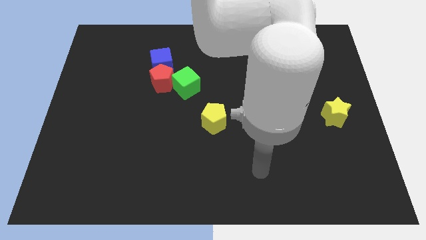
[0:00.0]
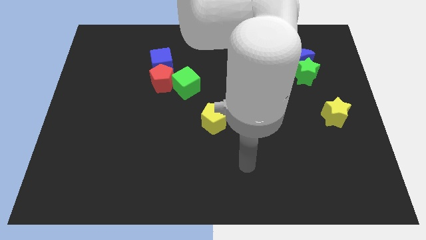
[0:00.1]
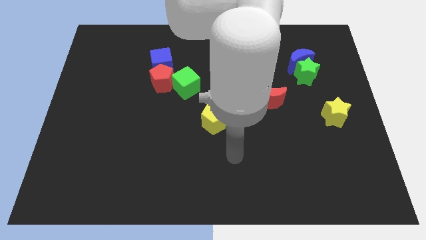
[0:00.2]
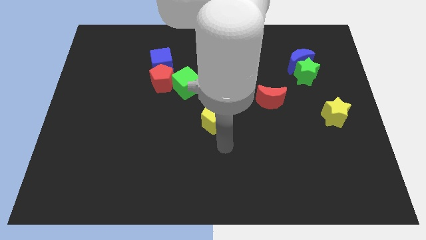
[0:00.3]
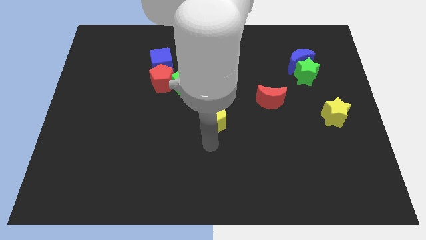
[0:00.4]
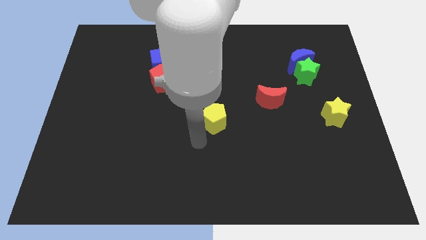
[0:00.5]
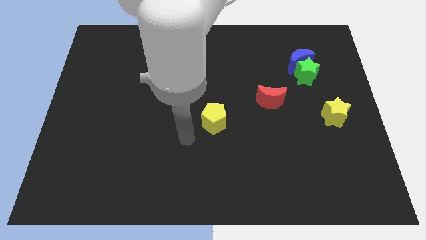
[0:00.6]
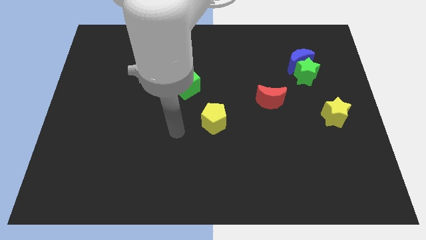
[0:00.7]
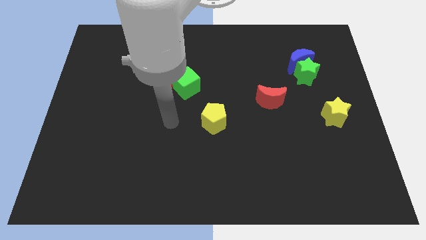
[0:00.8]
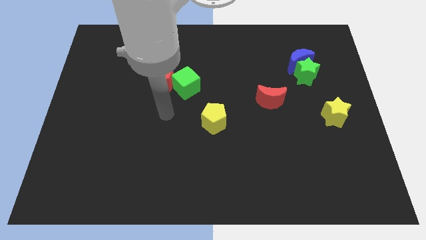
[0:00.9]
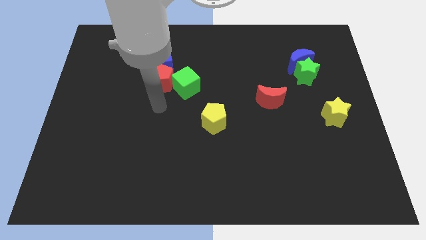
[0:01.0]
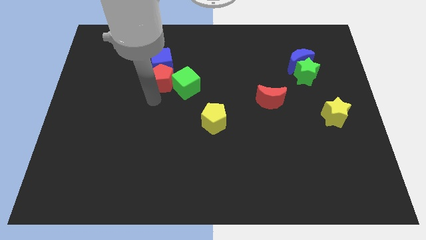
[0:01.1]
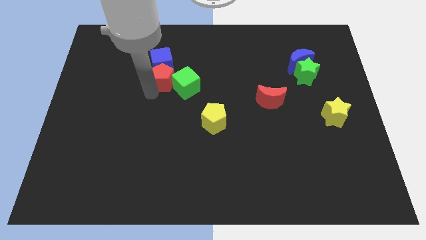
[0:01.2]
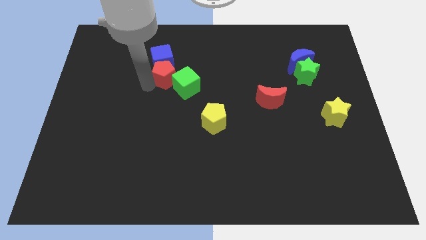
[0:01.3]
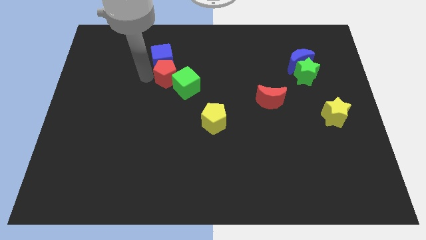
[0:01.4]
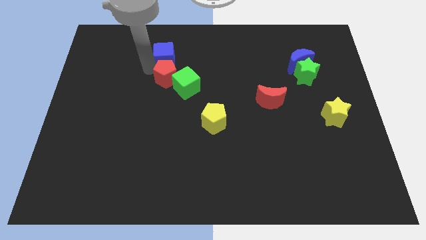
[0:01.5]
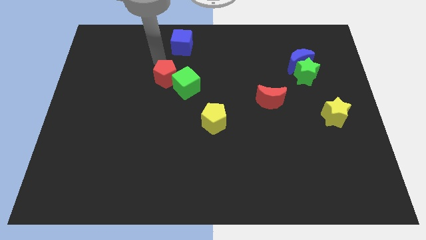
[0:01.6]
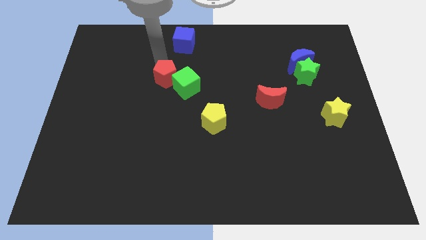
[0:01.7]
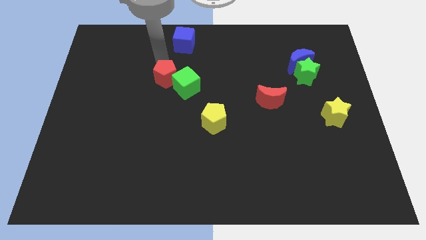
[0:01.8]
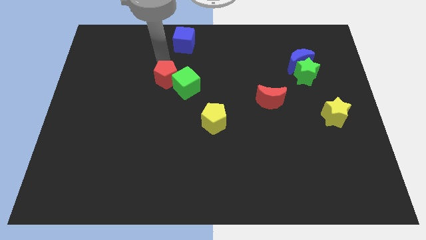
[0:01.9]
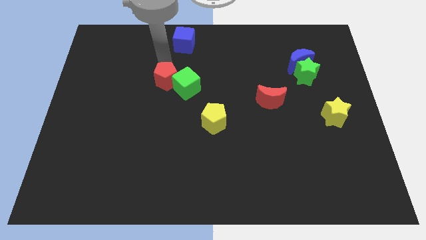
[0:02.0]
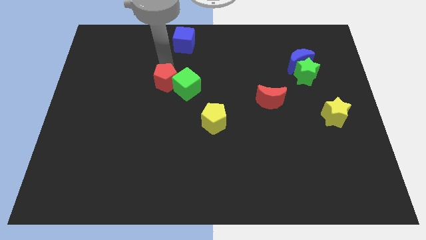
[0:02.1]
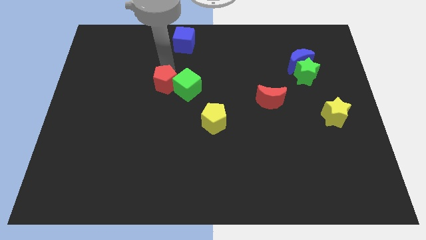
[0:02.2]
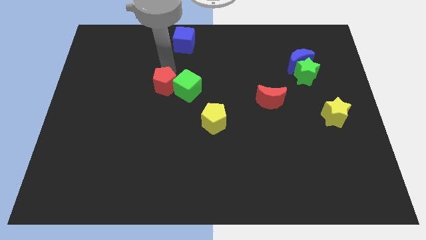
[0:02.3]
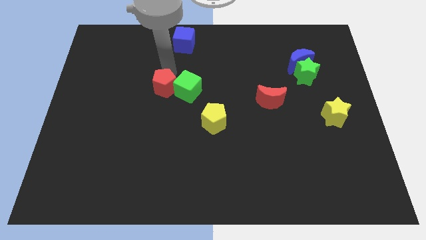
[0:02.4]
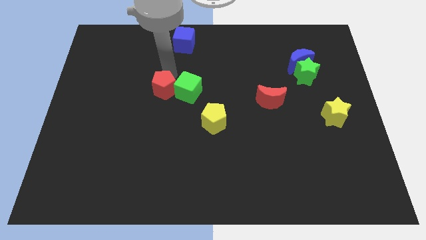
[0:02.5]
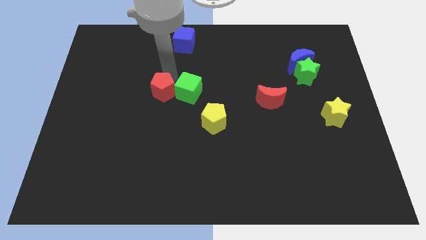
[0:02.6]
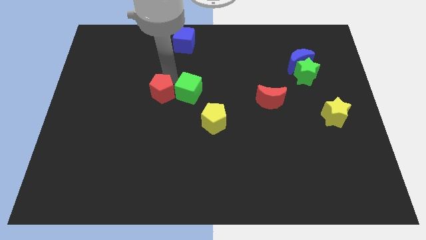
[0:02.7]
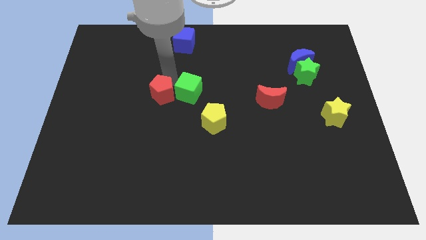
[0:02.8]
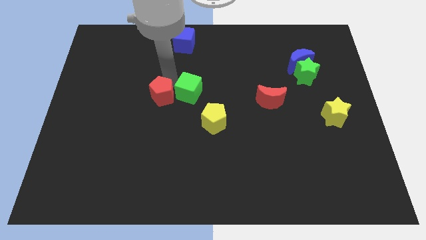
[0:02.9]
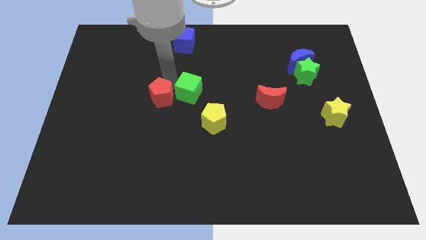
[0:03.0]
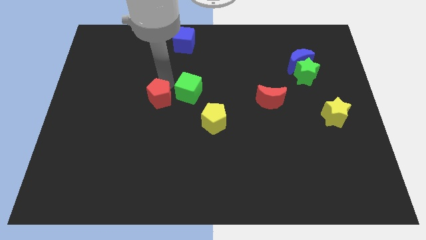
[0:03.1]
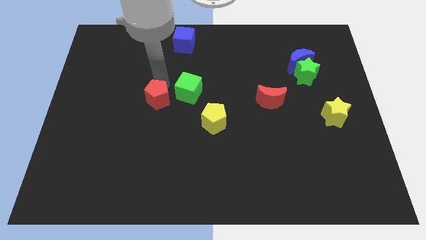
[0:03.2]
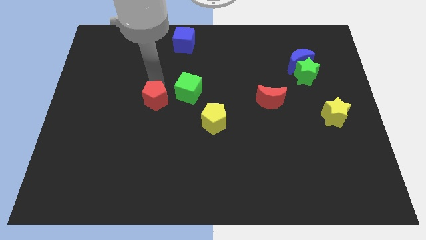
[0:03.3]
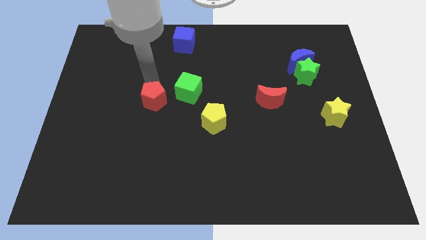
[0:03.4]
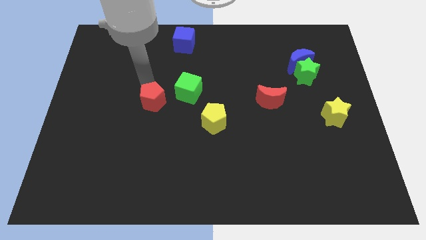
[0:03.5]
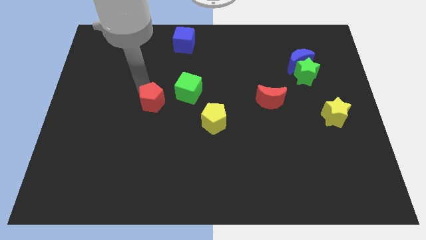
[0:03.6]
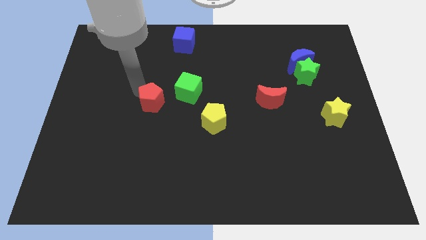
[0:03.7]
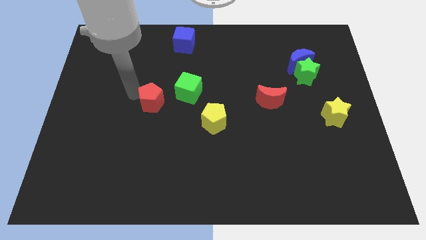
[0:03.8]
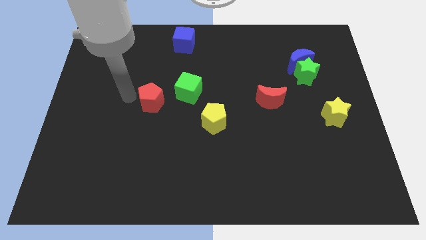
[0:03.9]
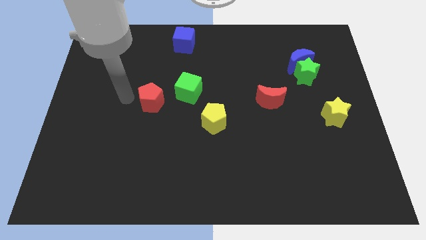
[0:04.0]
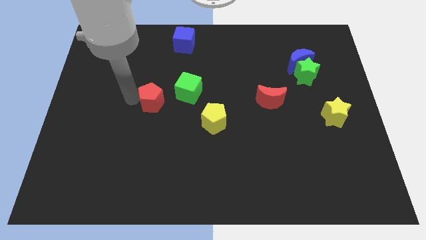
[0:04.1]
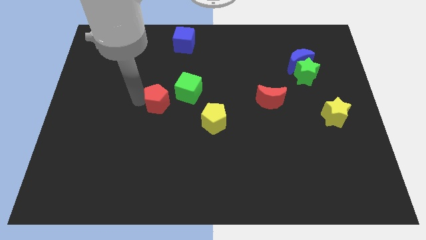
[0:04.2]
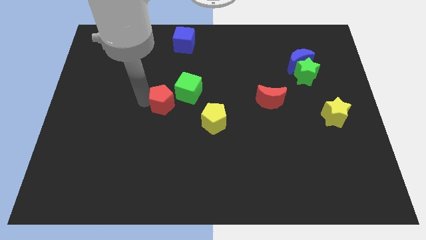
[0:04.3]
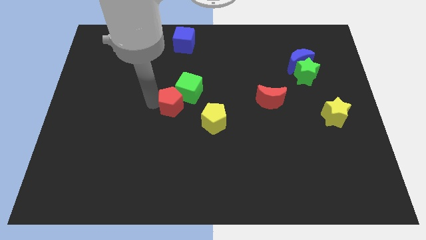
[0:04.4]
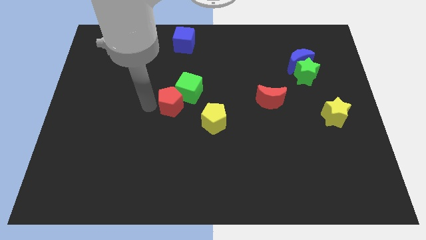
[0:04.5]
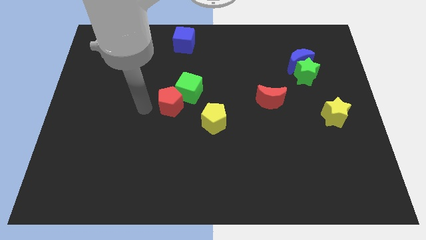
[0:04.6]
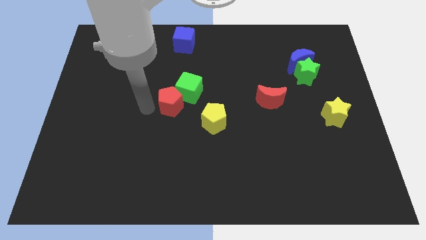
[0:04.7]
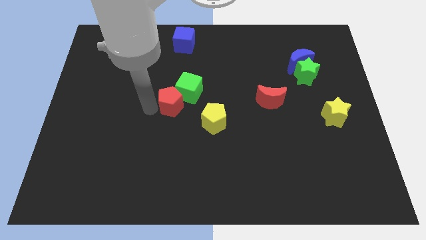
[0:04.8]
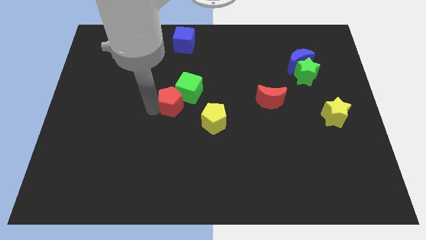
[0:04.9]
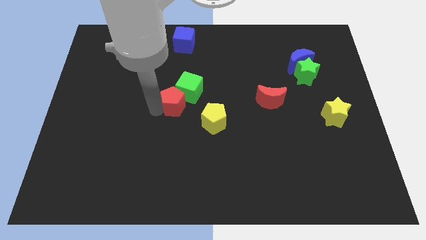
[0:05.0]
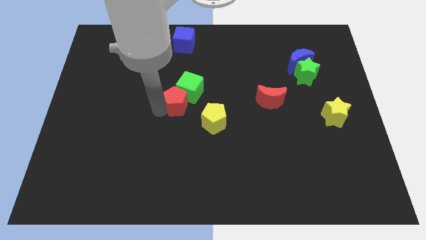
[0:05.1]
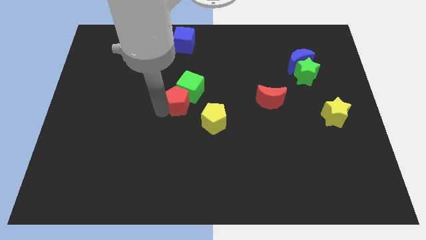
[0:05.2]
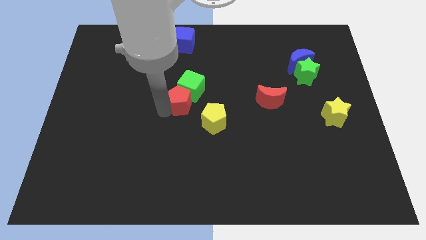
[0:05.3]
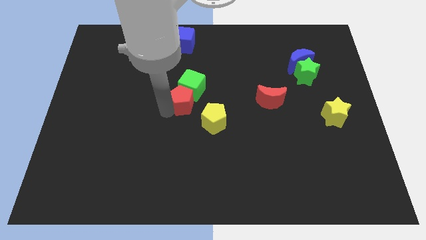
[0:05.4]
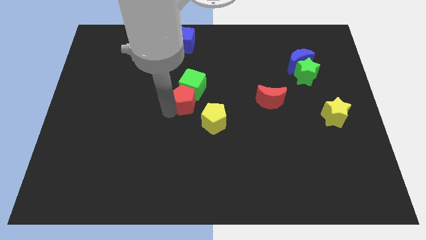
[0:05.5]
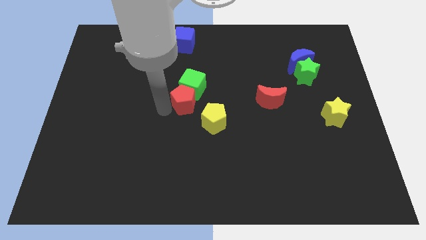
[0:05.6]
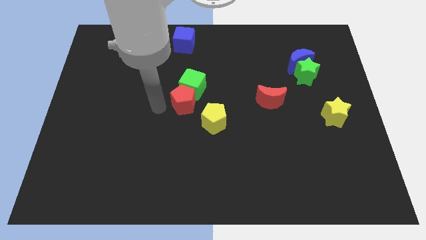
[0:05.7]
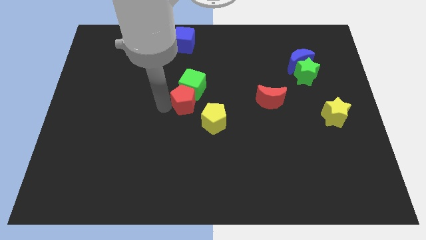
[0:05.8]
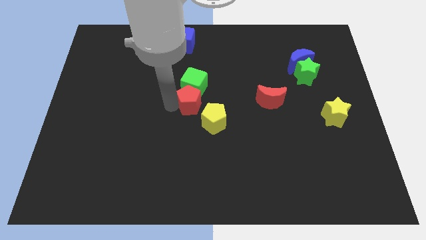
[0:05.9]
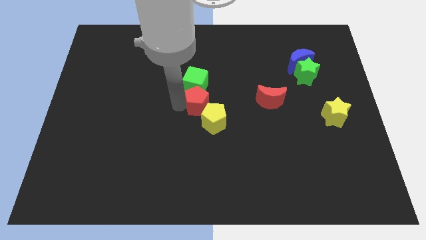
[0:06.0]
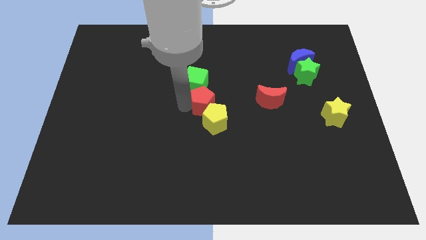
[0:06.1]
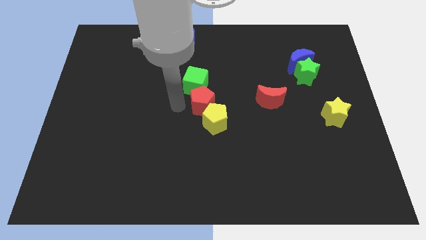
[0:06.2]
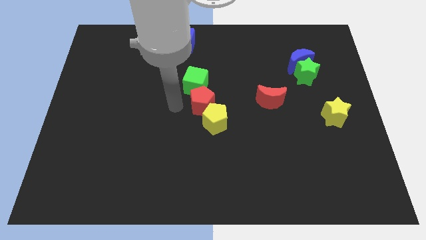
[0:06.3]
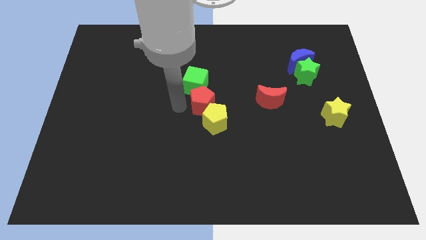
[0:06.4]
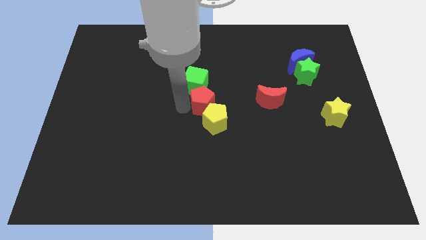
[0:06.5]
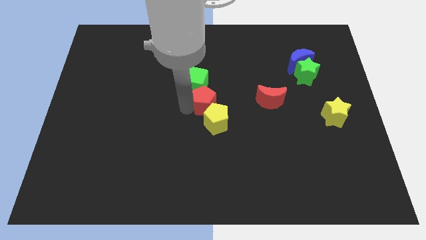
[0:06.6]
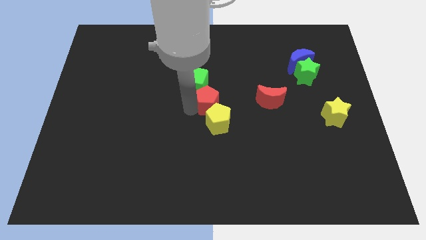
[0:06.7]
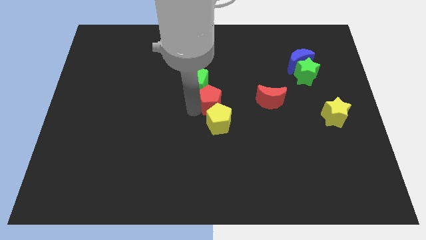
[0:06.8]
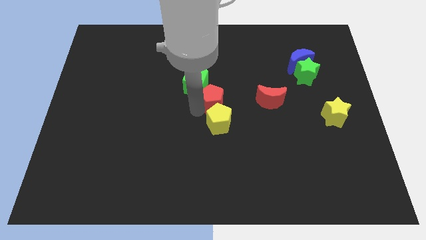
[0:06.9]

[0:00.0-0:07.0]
slide the red pentagon to the top right of the yellow pentagon

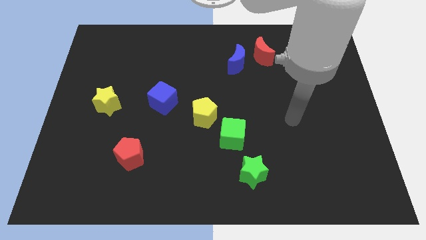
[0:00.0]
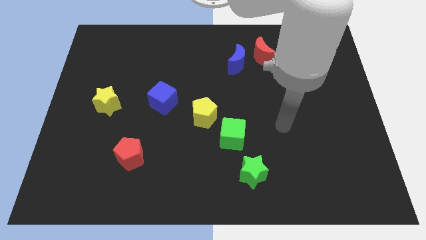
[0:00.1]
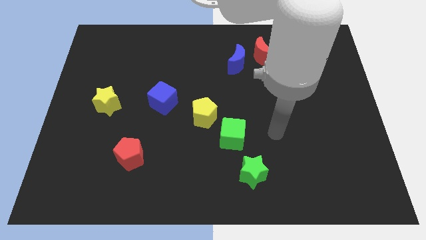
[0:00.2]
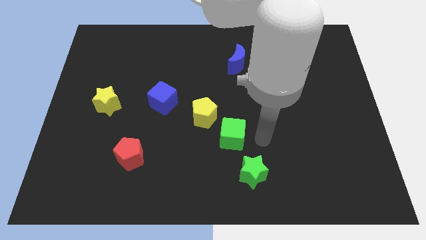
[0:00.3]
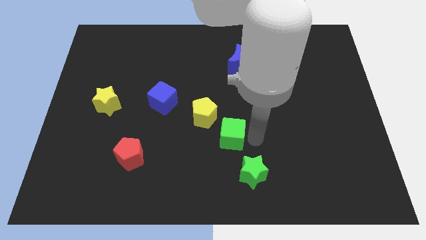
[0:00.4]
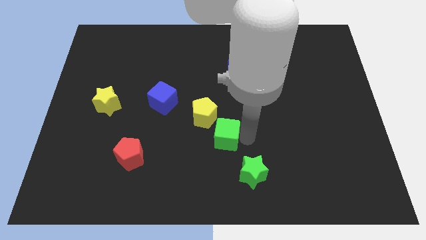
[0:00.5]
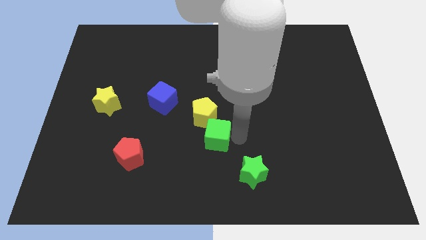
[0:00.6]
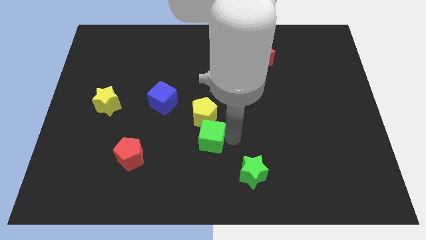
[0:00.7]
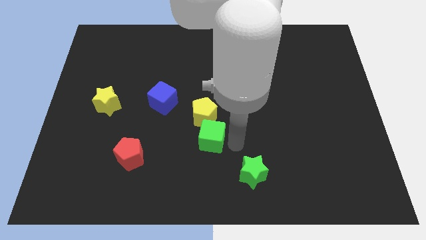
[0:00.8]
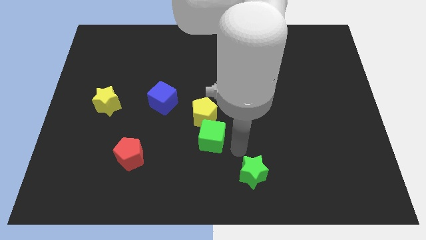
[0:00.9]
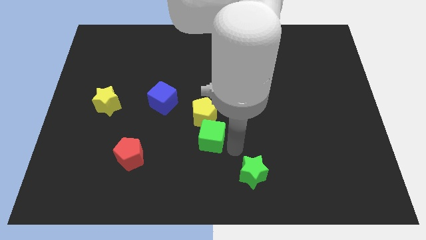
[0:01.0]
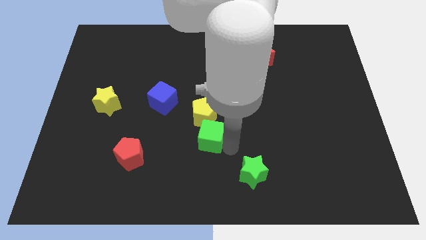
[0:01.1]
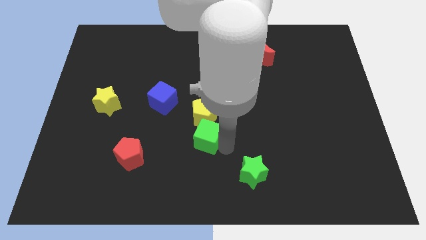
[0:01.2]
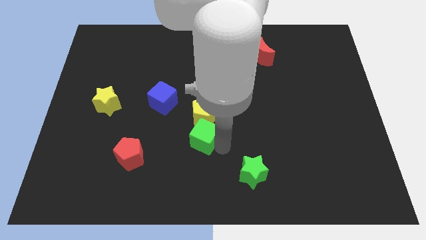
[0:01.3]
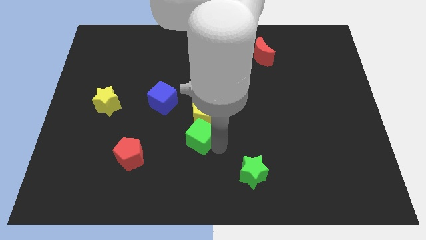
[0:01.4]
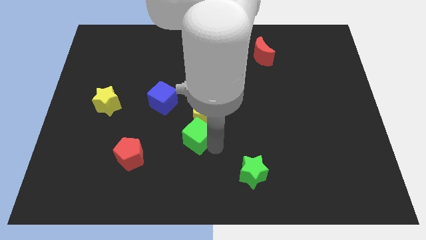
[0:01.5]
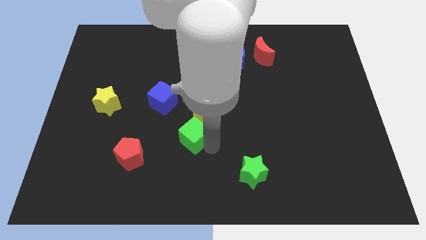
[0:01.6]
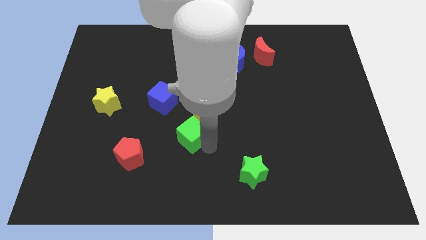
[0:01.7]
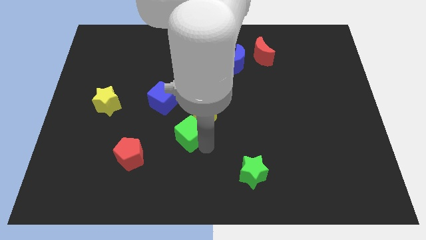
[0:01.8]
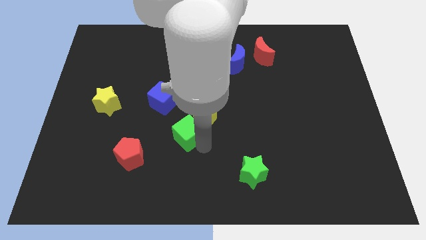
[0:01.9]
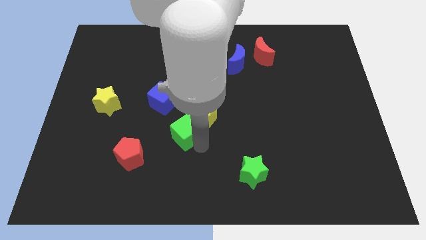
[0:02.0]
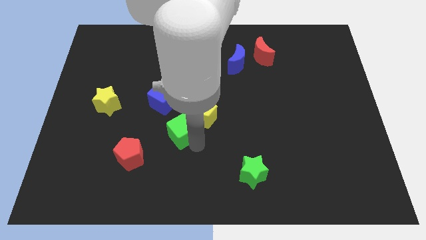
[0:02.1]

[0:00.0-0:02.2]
put the green cube just left of the yellow pentagon
